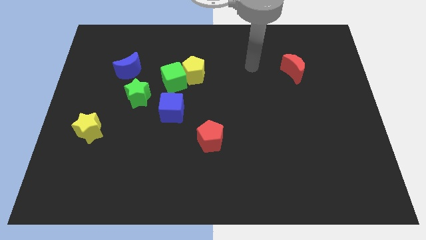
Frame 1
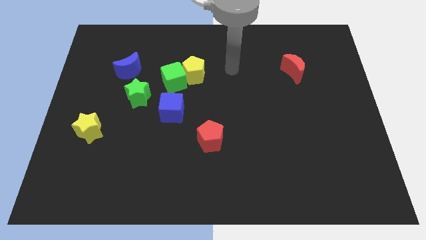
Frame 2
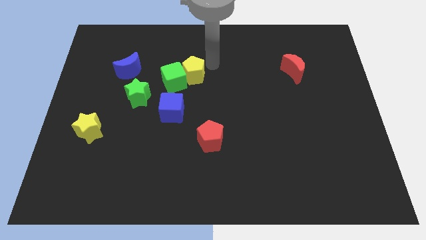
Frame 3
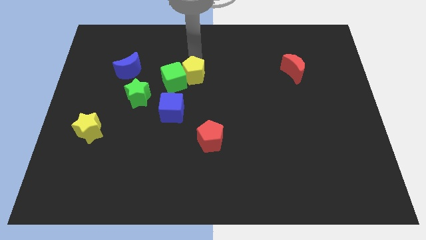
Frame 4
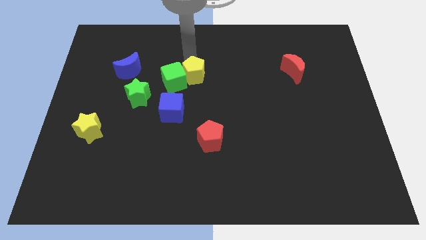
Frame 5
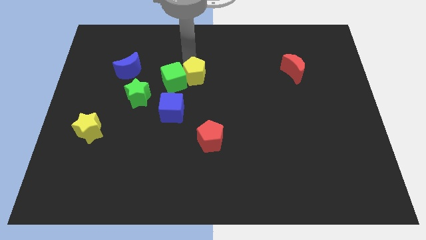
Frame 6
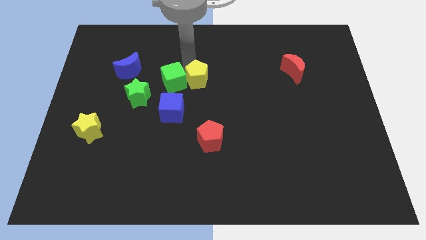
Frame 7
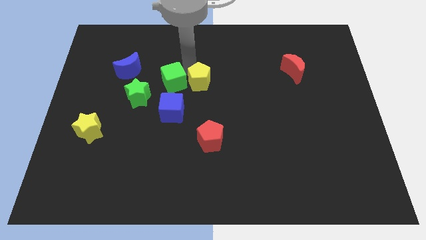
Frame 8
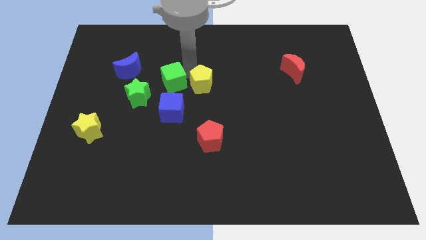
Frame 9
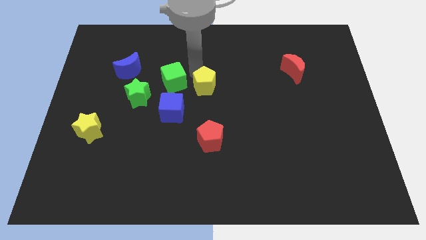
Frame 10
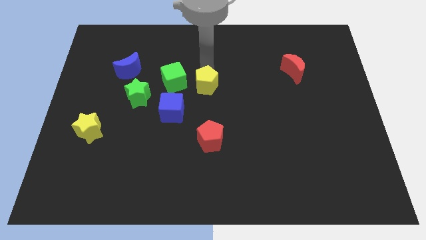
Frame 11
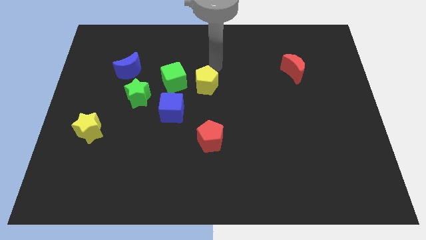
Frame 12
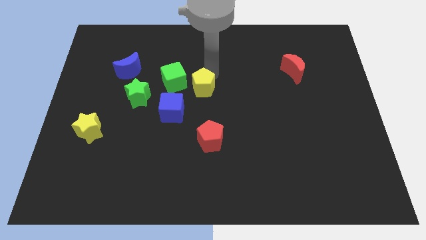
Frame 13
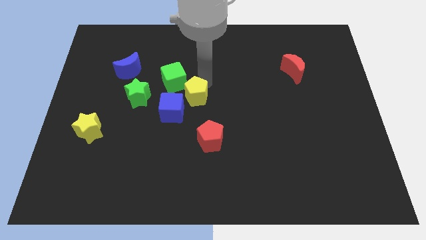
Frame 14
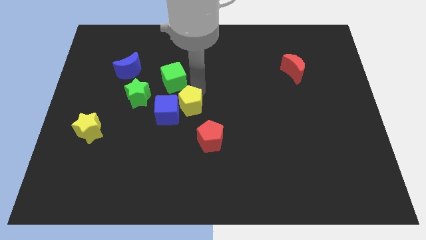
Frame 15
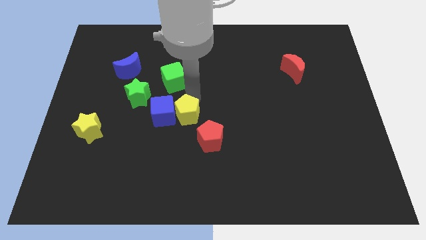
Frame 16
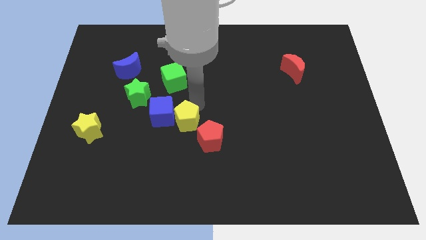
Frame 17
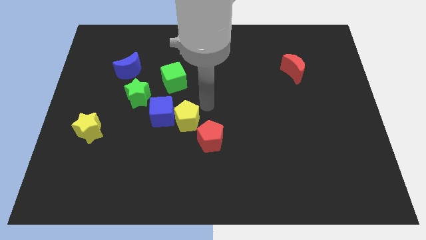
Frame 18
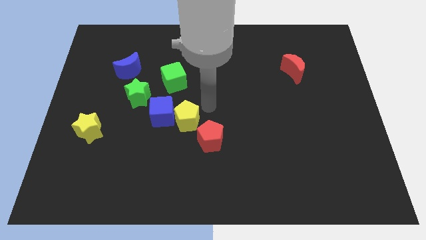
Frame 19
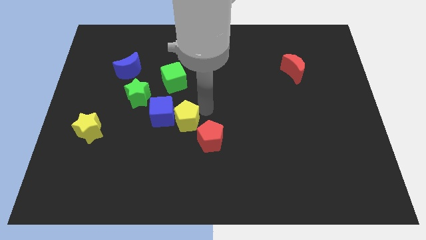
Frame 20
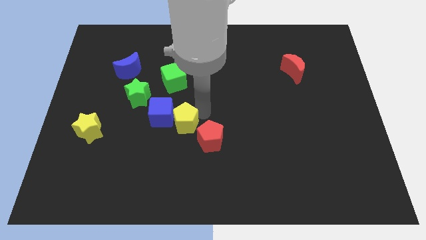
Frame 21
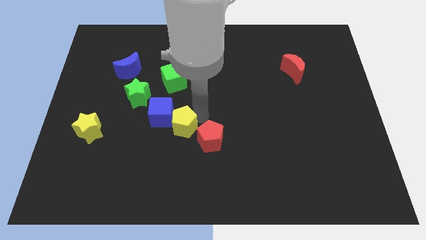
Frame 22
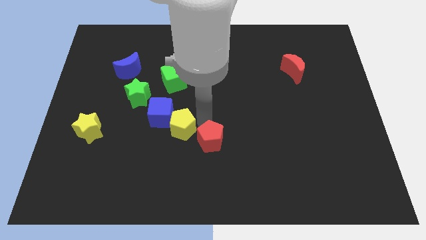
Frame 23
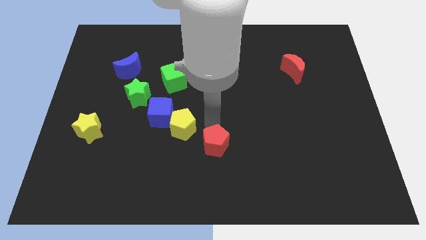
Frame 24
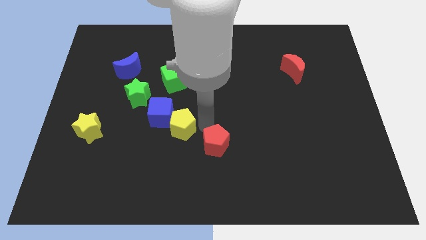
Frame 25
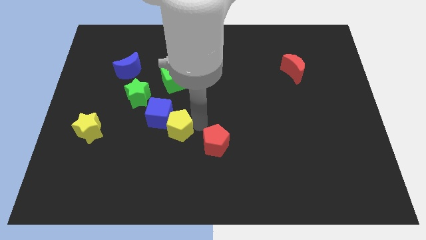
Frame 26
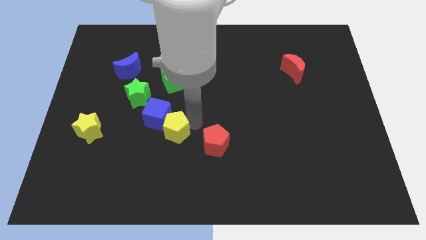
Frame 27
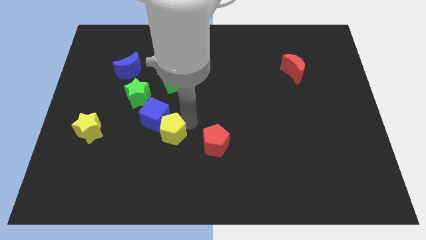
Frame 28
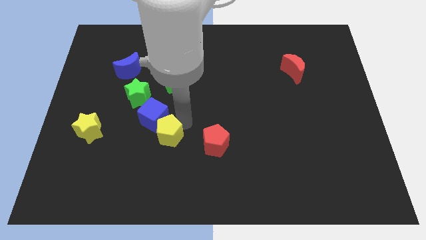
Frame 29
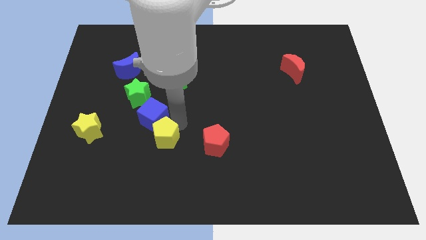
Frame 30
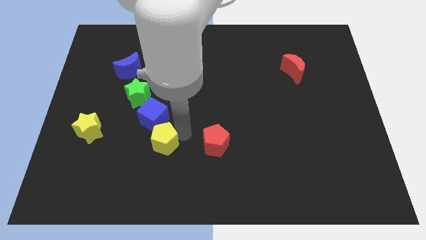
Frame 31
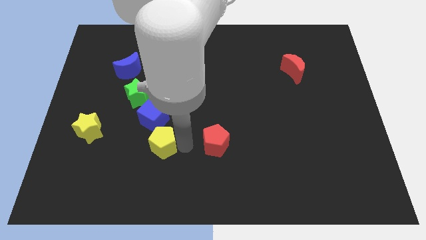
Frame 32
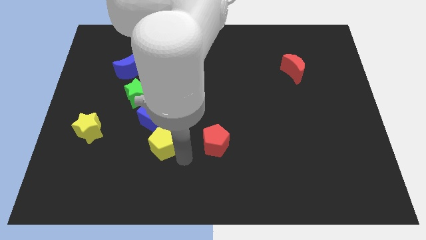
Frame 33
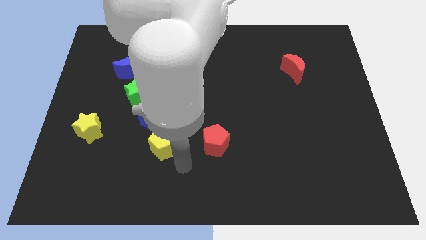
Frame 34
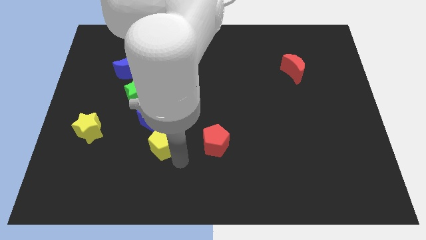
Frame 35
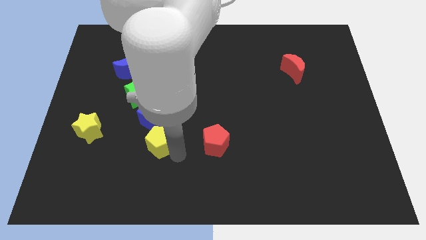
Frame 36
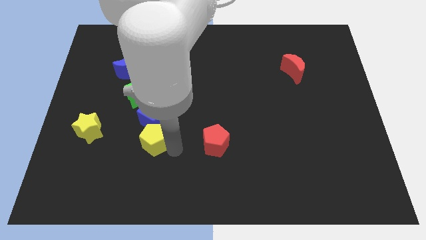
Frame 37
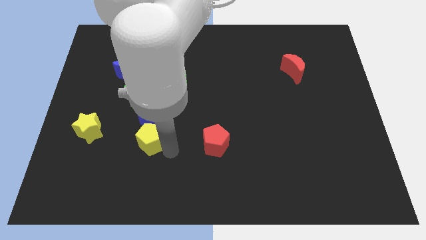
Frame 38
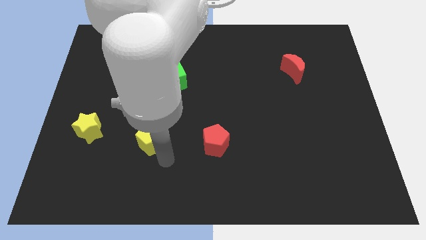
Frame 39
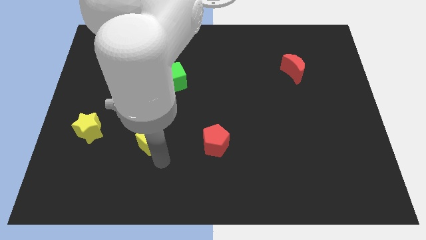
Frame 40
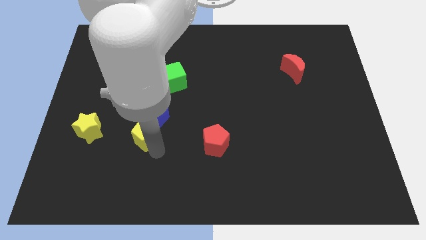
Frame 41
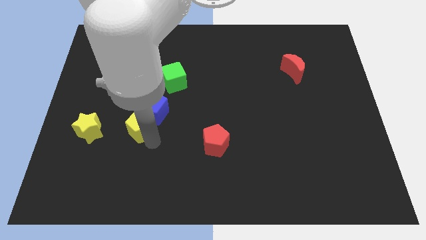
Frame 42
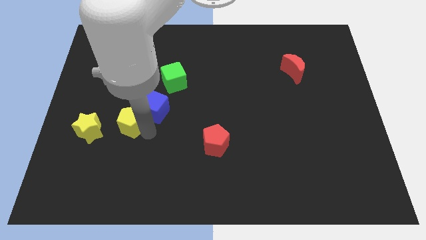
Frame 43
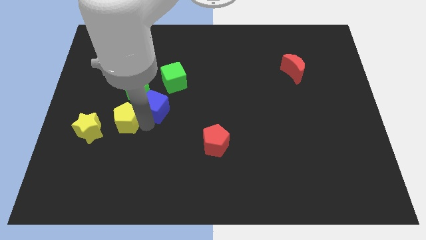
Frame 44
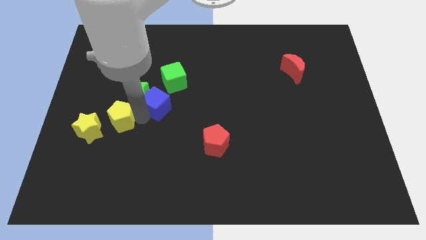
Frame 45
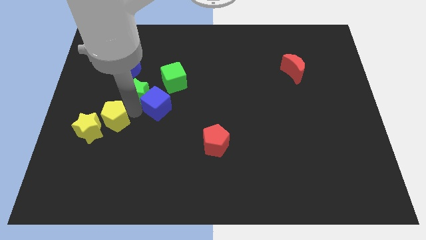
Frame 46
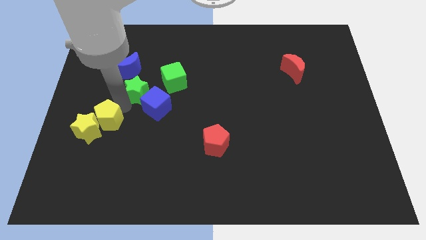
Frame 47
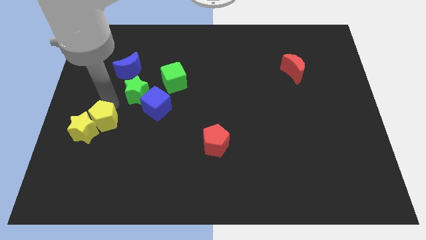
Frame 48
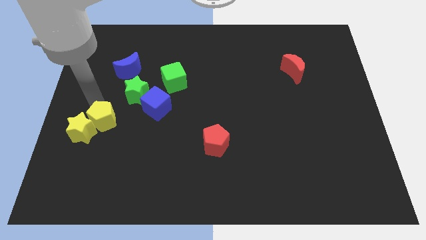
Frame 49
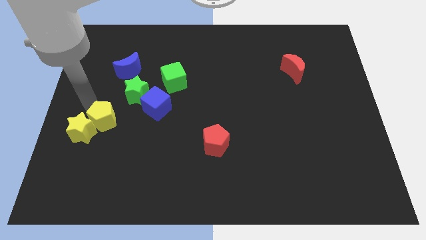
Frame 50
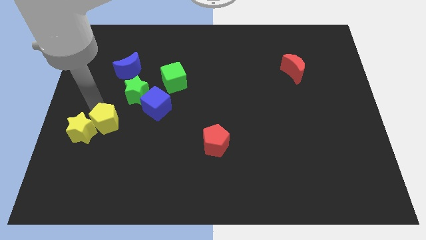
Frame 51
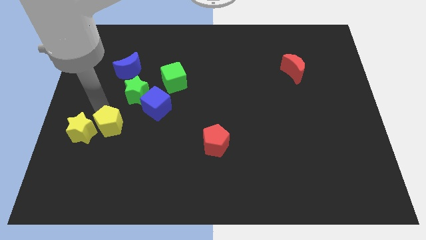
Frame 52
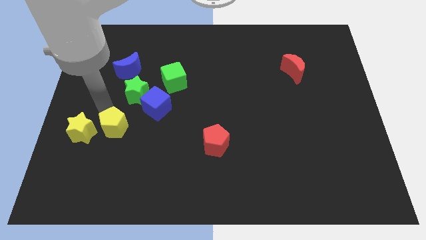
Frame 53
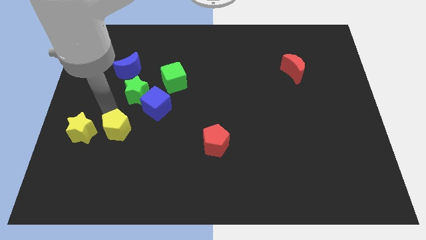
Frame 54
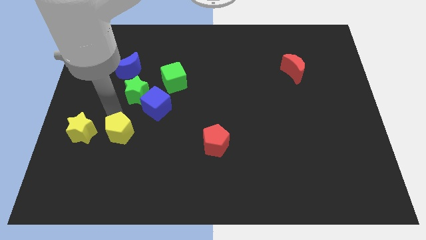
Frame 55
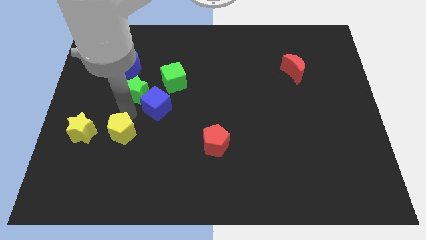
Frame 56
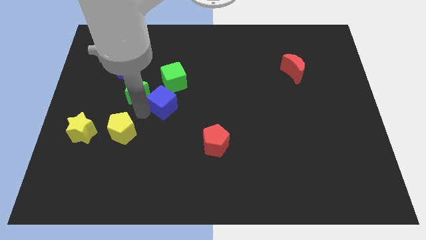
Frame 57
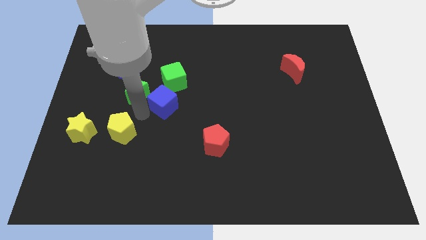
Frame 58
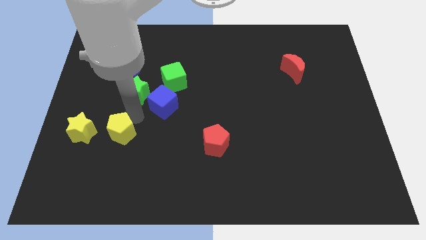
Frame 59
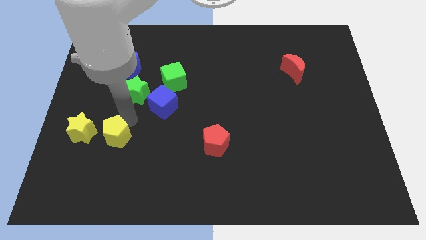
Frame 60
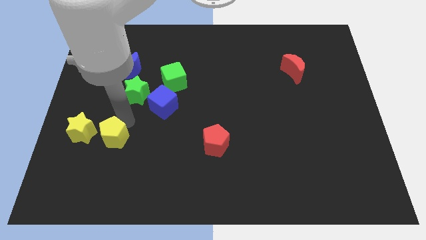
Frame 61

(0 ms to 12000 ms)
slide the yellow pentagon to the bottom right of the yellow star

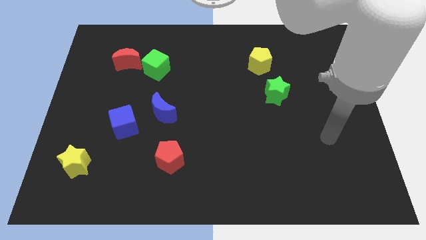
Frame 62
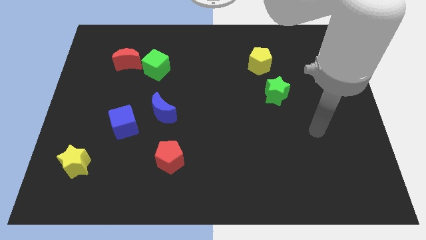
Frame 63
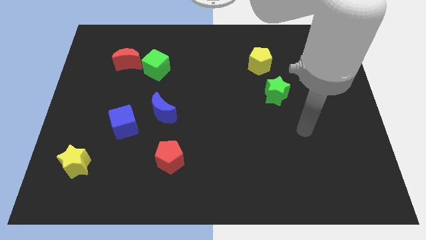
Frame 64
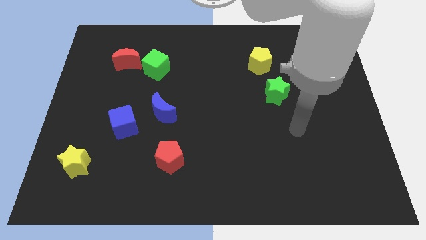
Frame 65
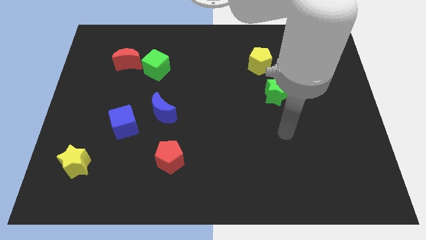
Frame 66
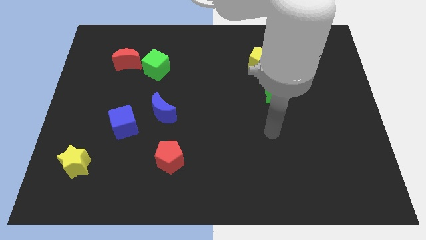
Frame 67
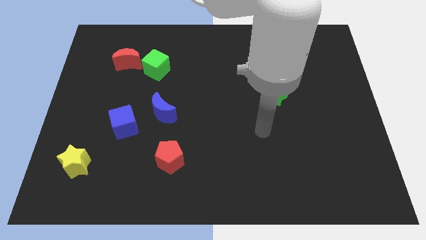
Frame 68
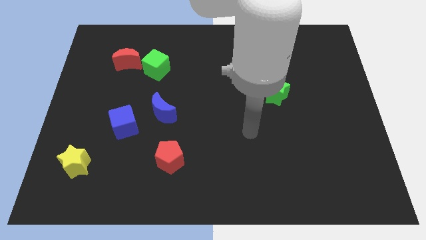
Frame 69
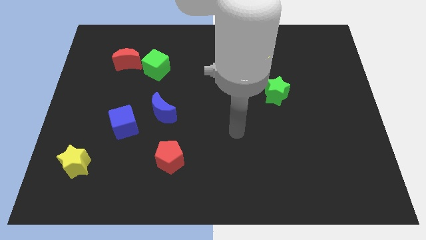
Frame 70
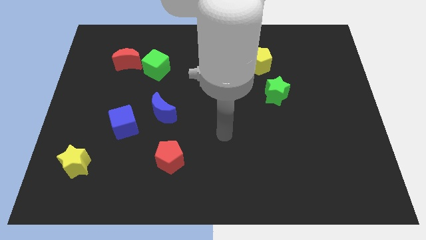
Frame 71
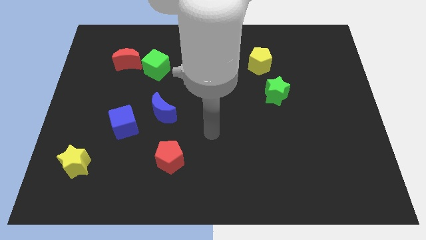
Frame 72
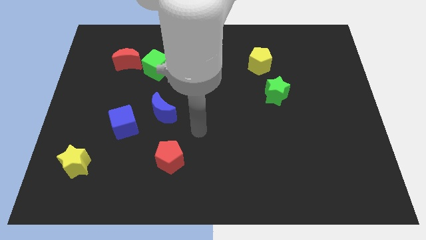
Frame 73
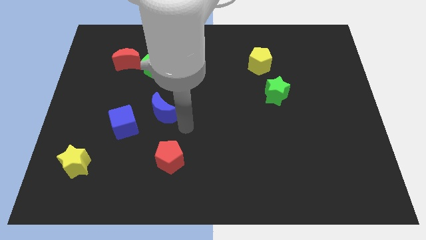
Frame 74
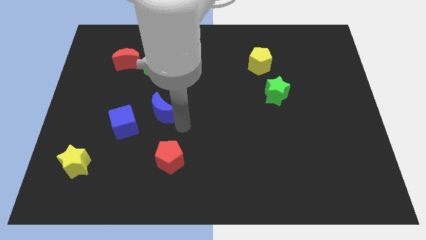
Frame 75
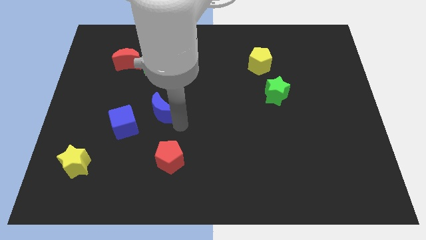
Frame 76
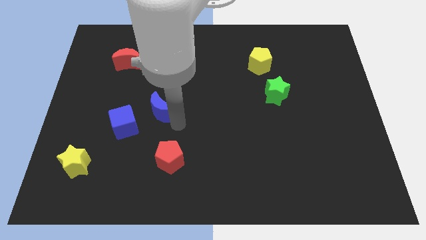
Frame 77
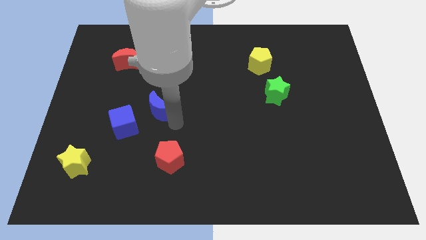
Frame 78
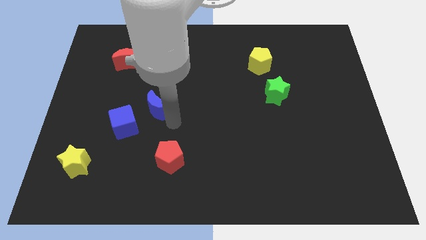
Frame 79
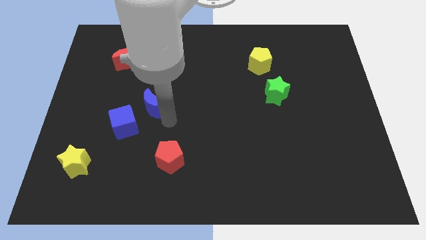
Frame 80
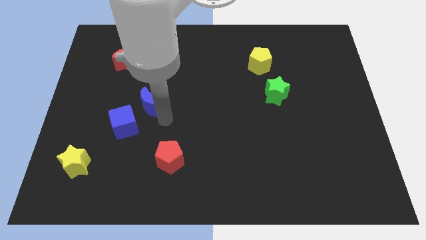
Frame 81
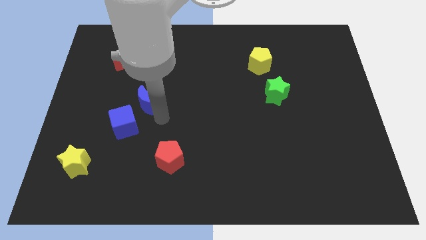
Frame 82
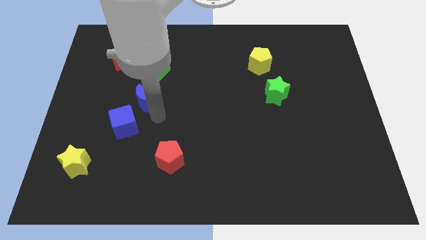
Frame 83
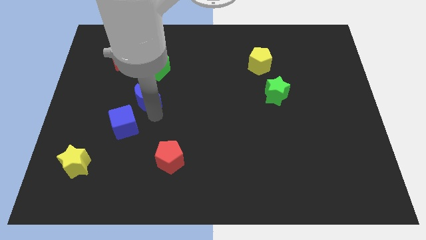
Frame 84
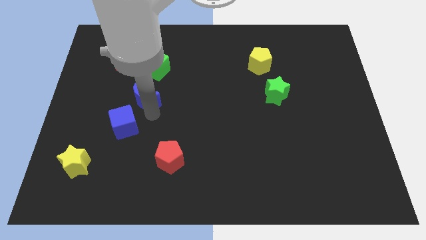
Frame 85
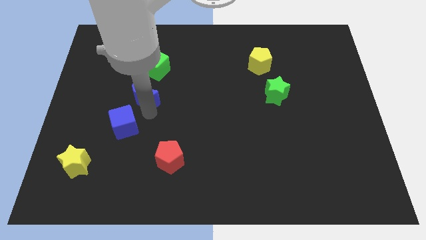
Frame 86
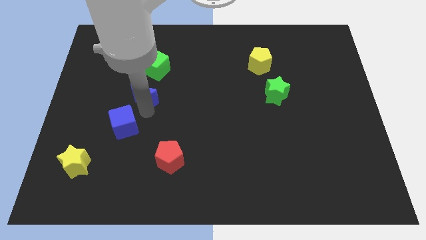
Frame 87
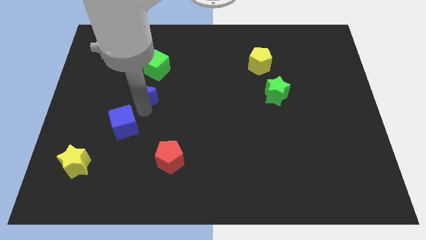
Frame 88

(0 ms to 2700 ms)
slide the blue moon to the bottom side of the red moon
